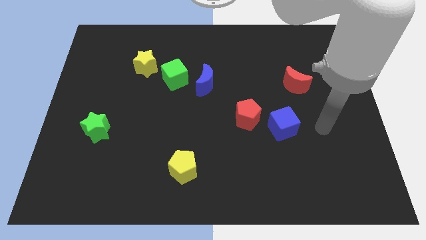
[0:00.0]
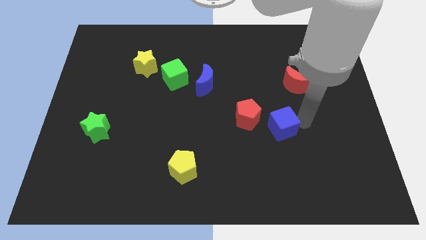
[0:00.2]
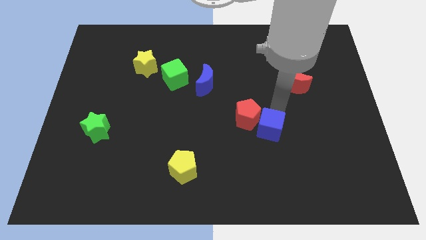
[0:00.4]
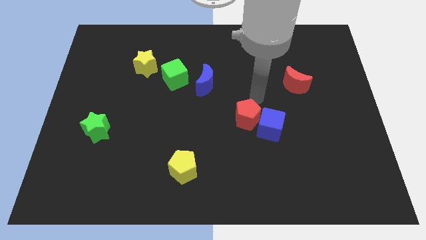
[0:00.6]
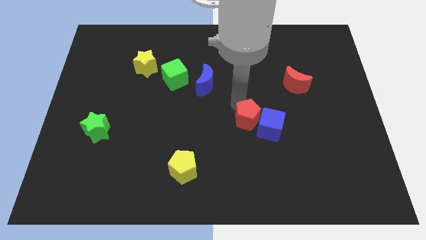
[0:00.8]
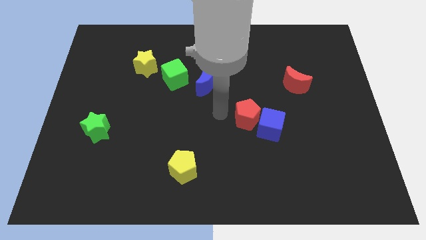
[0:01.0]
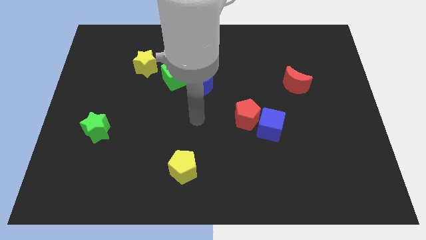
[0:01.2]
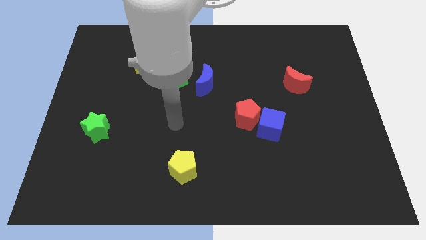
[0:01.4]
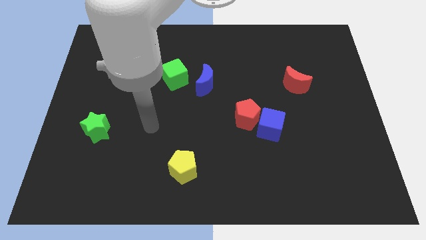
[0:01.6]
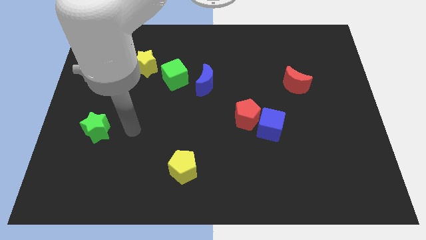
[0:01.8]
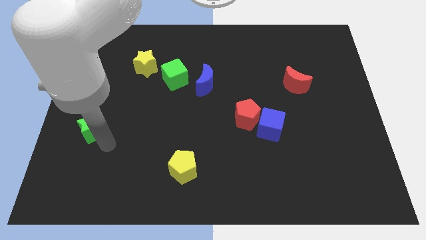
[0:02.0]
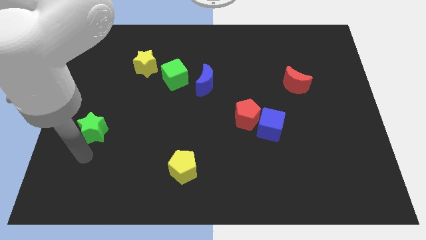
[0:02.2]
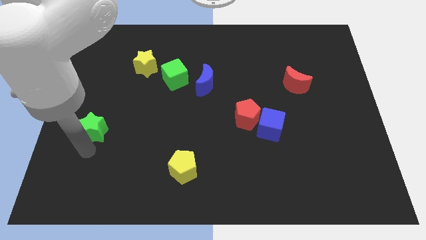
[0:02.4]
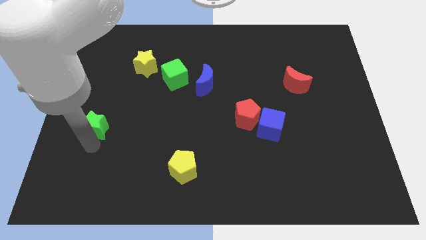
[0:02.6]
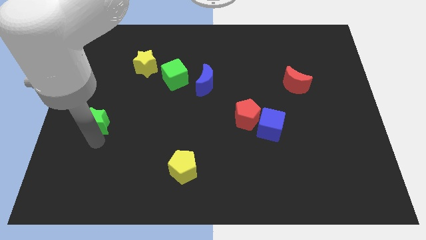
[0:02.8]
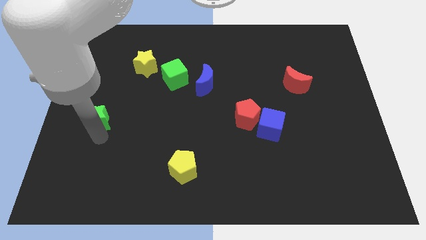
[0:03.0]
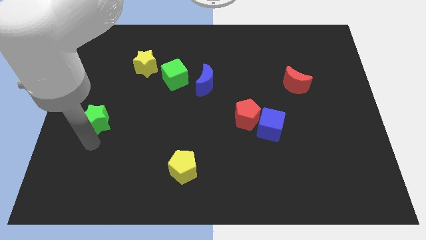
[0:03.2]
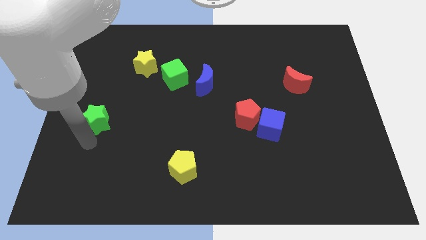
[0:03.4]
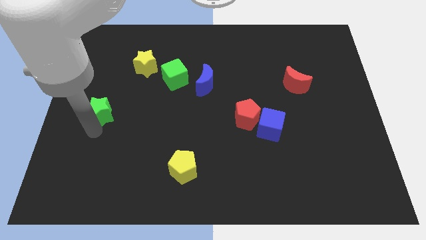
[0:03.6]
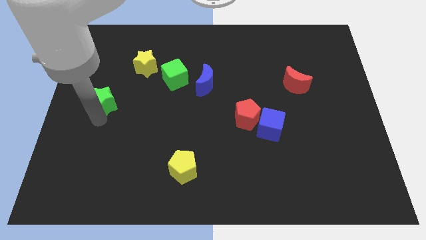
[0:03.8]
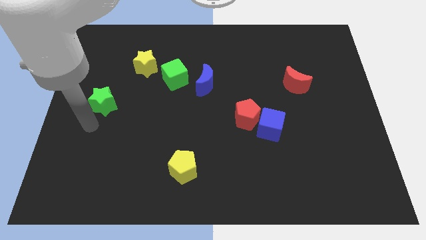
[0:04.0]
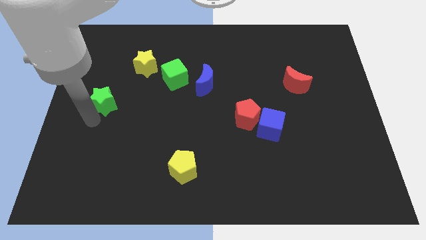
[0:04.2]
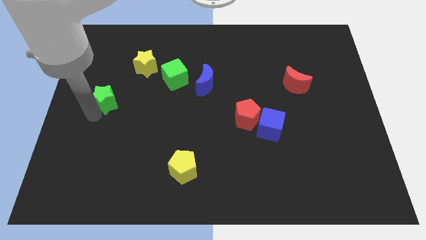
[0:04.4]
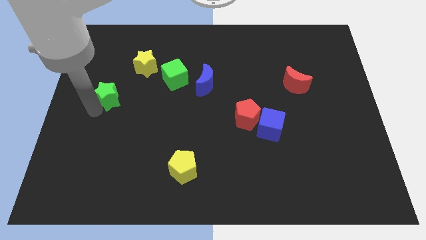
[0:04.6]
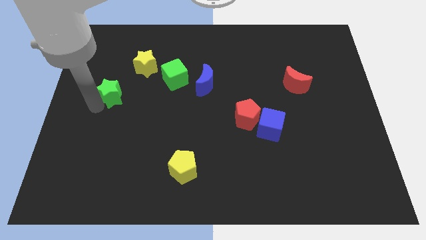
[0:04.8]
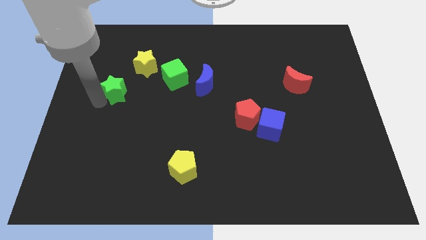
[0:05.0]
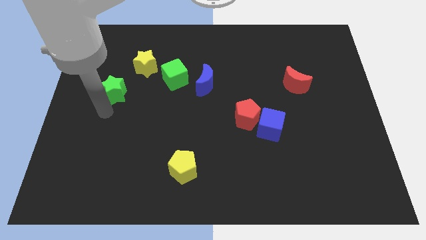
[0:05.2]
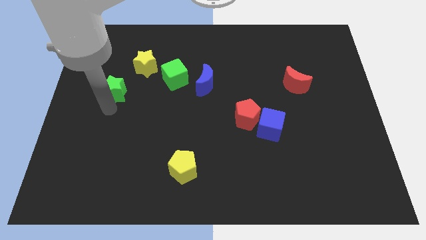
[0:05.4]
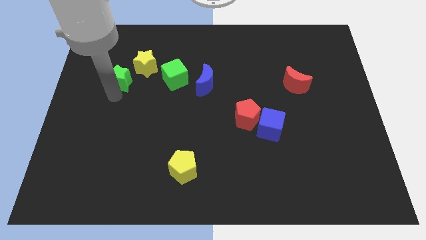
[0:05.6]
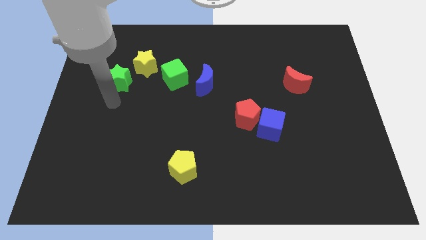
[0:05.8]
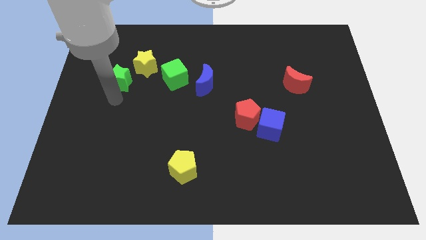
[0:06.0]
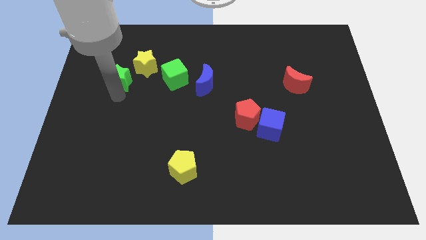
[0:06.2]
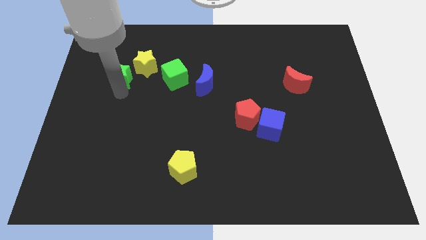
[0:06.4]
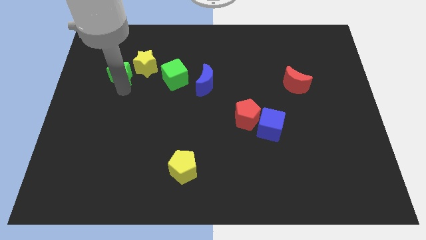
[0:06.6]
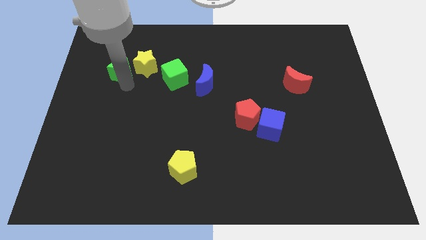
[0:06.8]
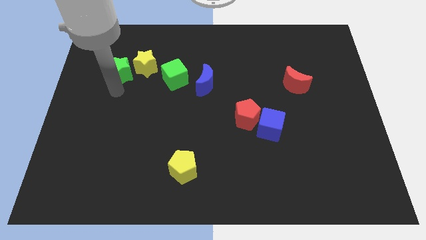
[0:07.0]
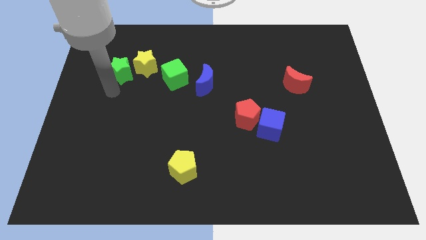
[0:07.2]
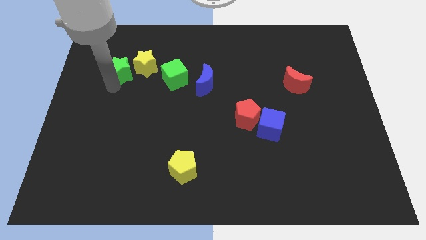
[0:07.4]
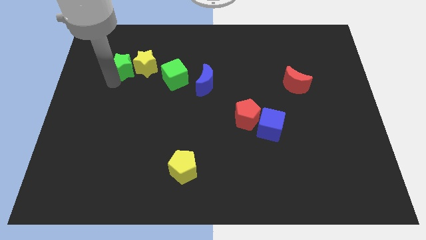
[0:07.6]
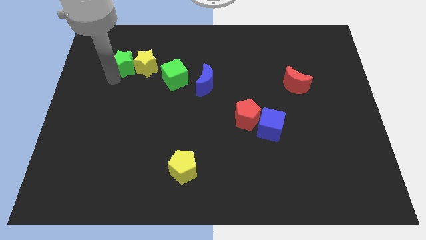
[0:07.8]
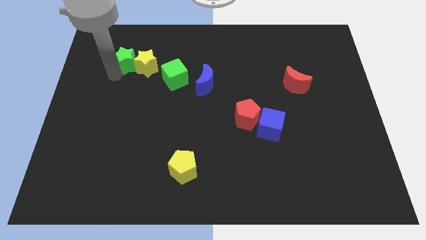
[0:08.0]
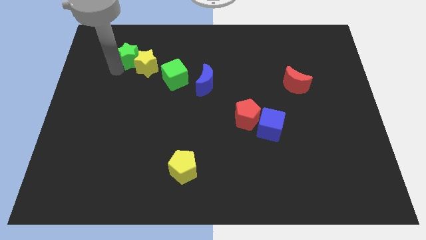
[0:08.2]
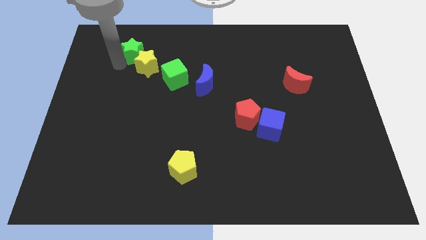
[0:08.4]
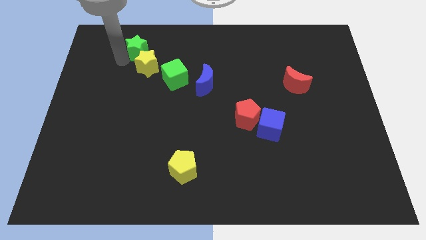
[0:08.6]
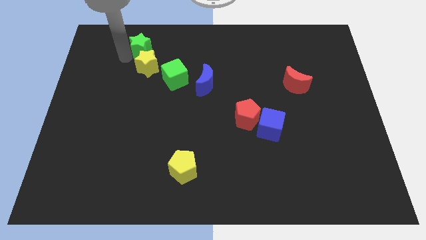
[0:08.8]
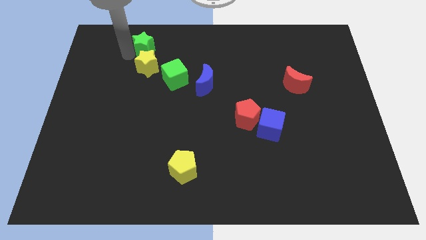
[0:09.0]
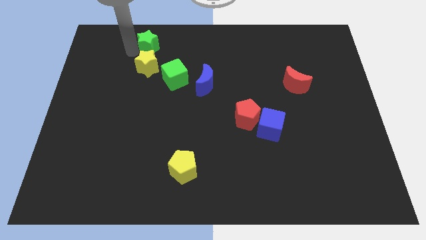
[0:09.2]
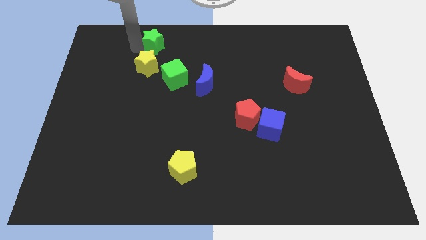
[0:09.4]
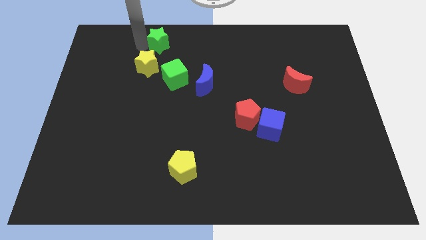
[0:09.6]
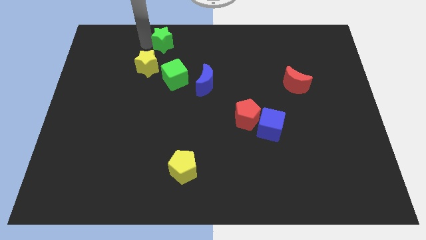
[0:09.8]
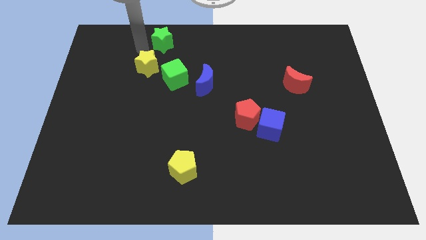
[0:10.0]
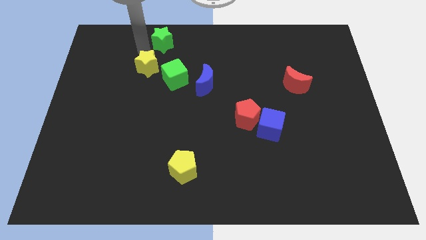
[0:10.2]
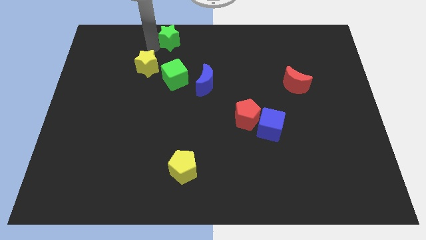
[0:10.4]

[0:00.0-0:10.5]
push the green star to the towards your base

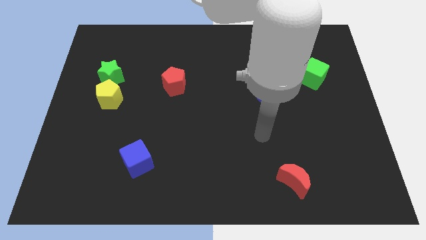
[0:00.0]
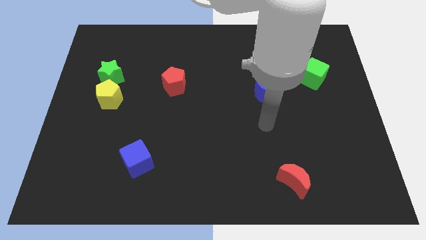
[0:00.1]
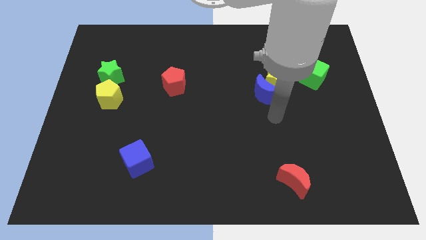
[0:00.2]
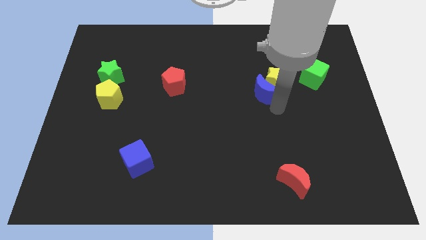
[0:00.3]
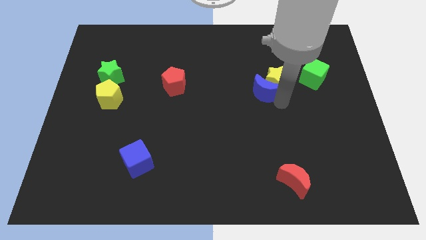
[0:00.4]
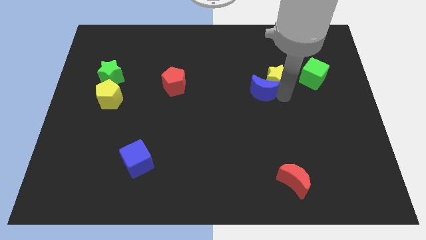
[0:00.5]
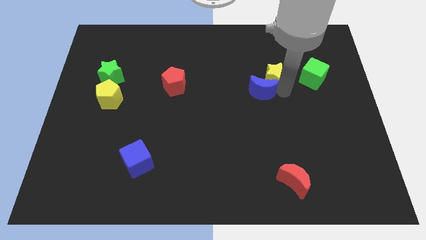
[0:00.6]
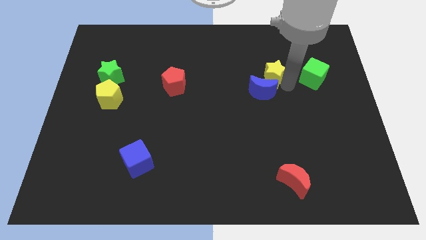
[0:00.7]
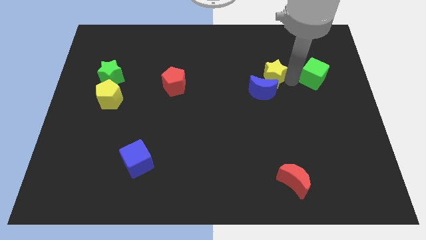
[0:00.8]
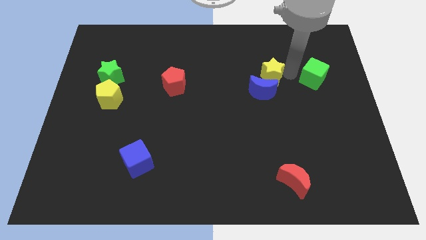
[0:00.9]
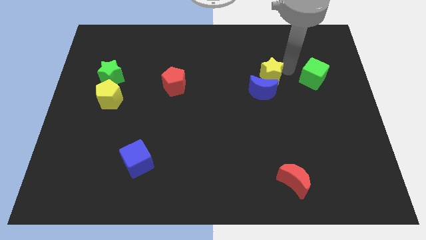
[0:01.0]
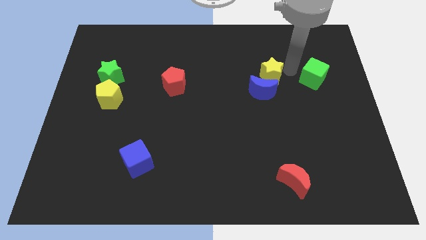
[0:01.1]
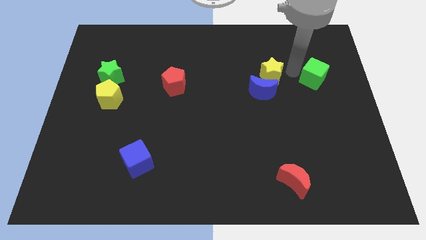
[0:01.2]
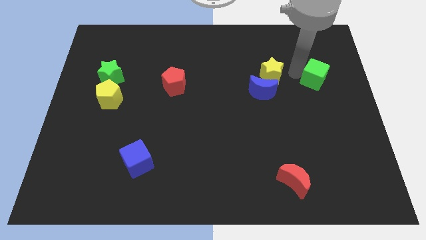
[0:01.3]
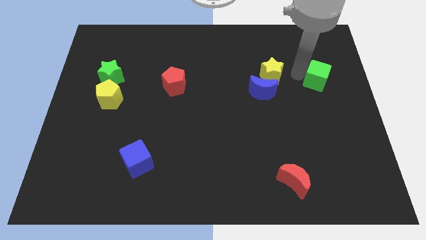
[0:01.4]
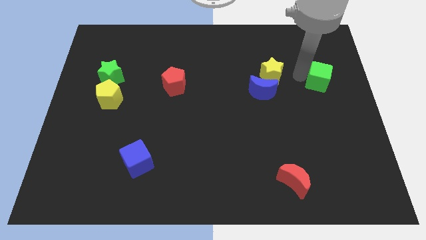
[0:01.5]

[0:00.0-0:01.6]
put the green cube to the right side
